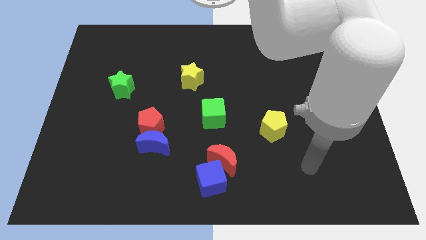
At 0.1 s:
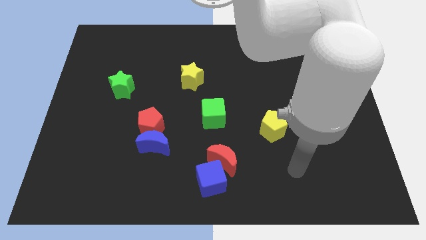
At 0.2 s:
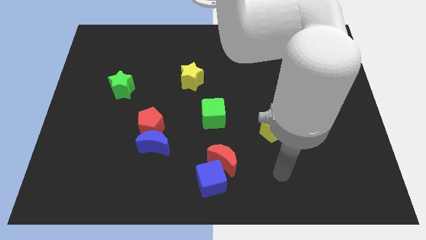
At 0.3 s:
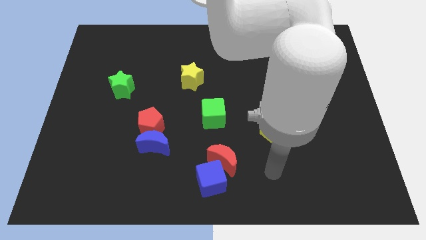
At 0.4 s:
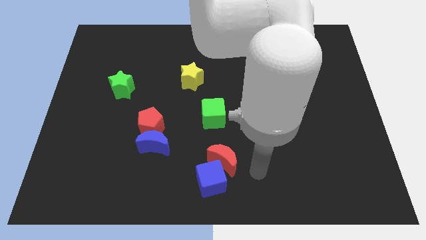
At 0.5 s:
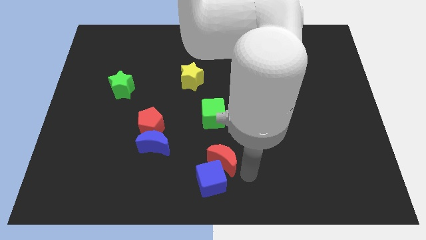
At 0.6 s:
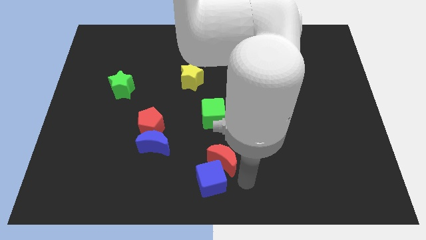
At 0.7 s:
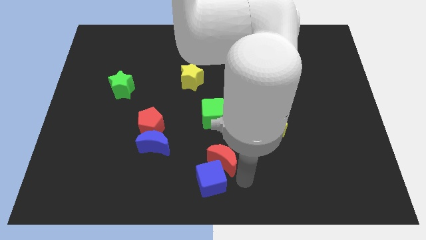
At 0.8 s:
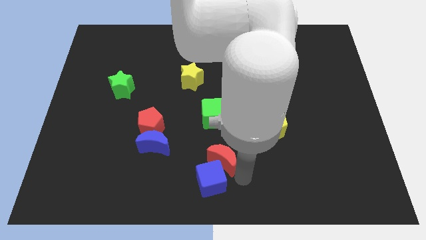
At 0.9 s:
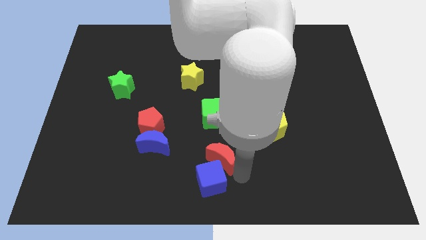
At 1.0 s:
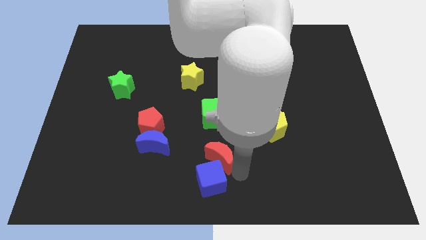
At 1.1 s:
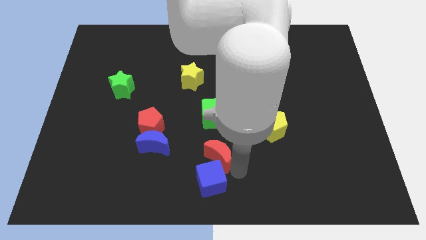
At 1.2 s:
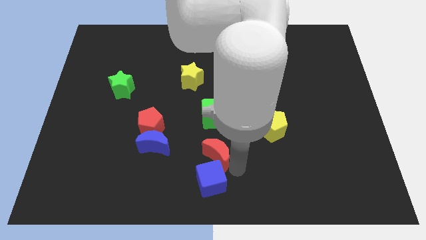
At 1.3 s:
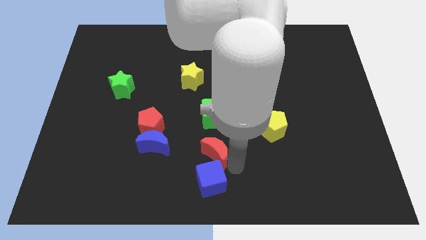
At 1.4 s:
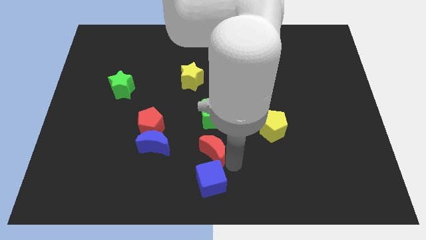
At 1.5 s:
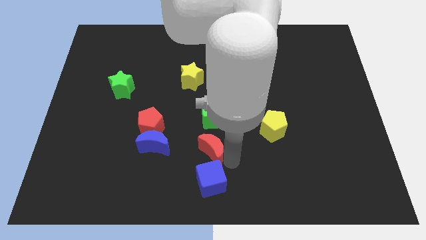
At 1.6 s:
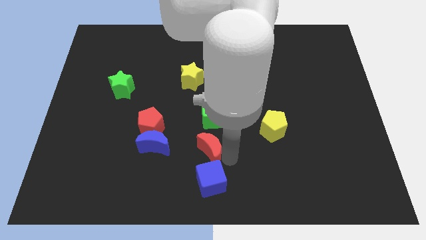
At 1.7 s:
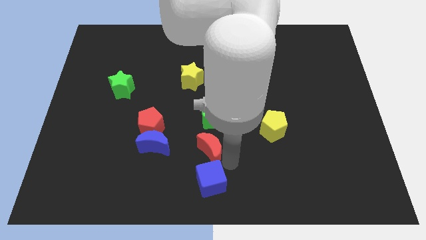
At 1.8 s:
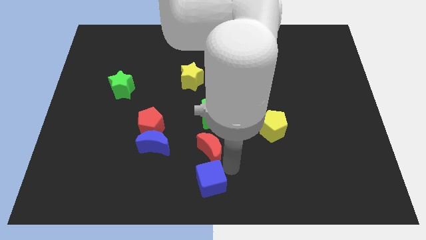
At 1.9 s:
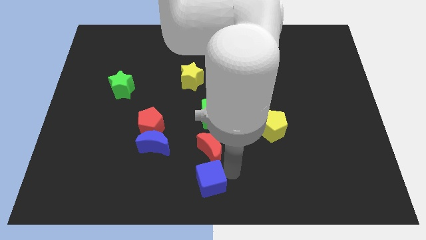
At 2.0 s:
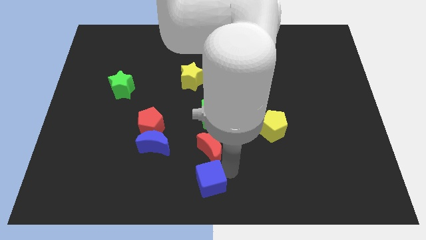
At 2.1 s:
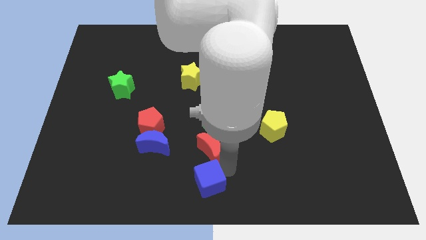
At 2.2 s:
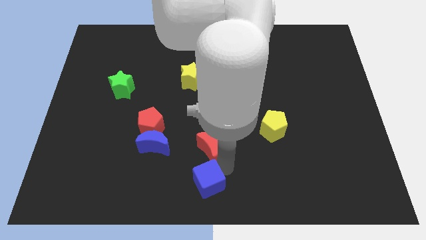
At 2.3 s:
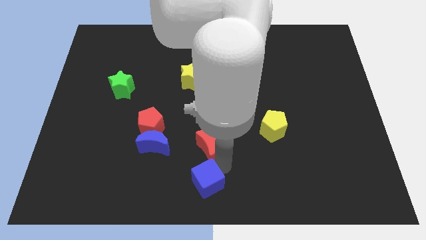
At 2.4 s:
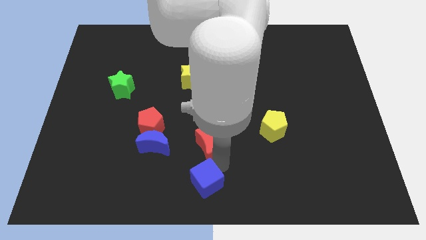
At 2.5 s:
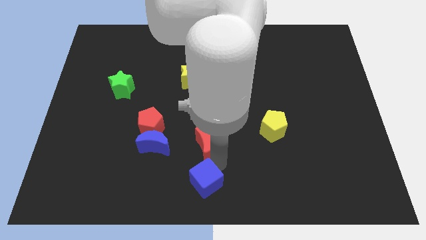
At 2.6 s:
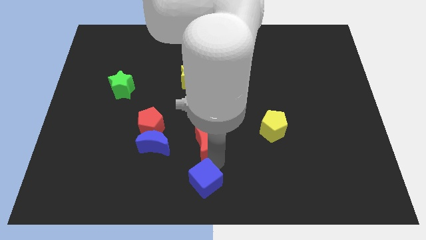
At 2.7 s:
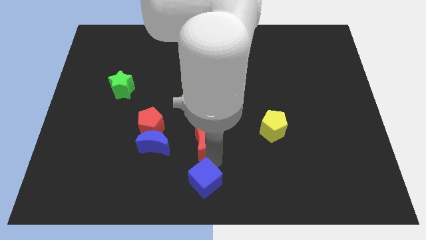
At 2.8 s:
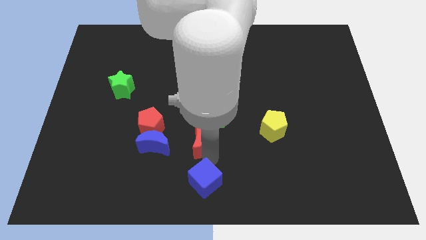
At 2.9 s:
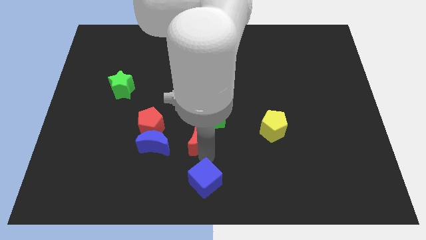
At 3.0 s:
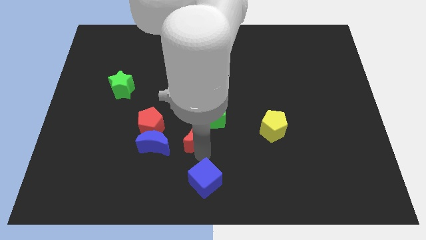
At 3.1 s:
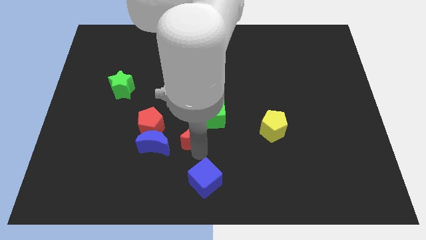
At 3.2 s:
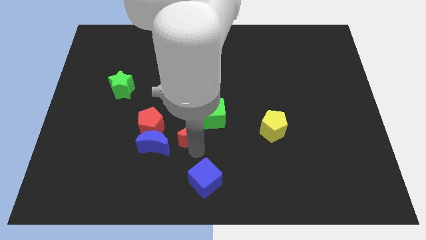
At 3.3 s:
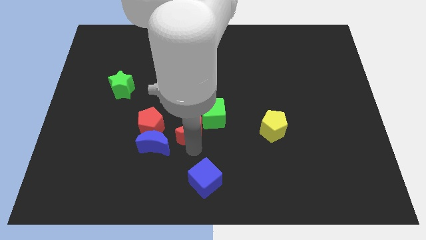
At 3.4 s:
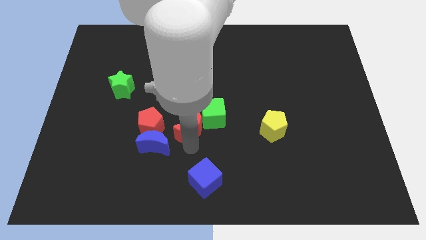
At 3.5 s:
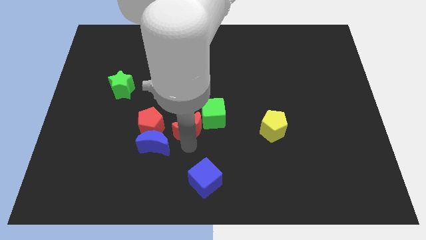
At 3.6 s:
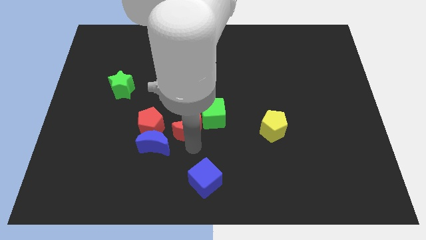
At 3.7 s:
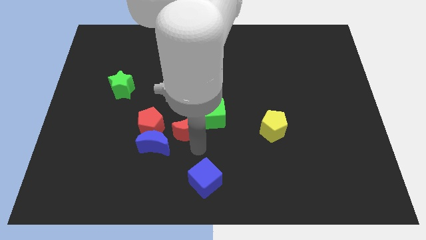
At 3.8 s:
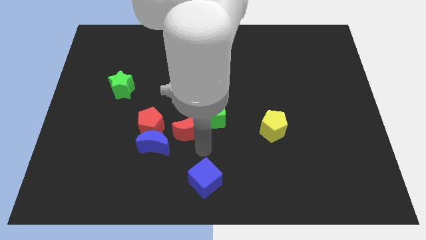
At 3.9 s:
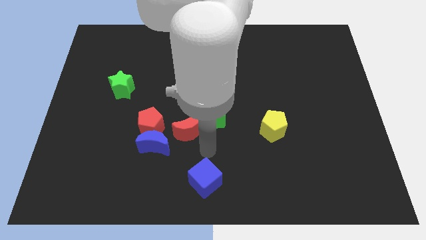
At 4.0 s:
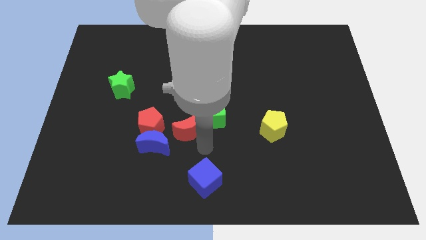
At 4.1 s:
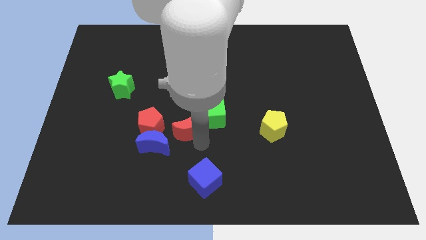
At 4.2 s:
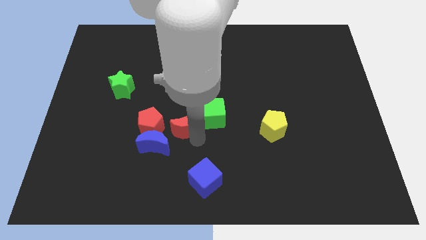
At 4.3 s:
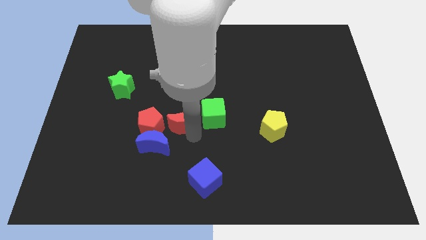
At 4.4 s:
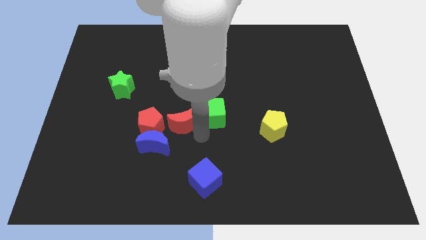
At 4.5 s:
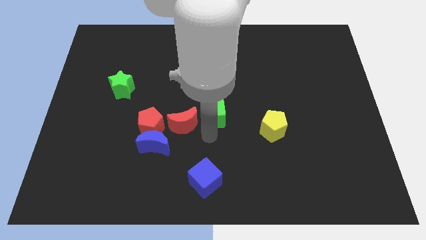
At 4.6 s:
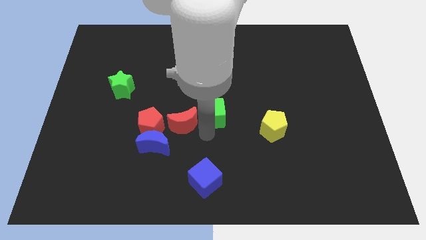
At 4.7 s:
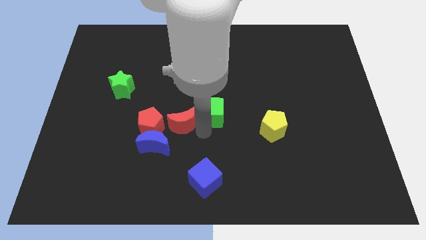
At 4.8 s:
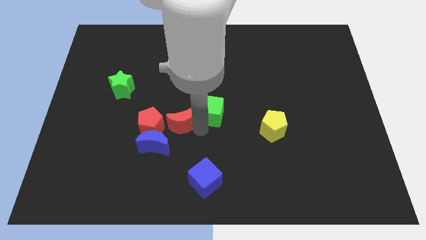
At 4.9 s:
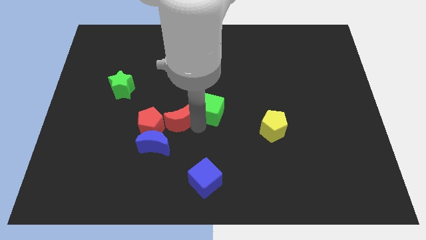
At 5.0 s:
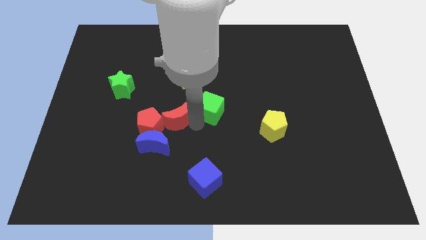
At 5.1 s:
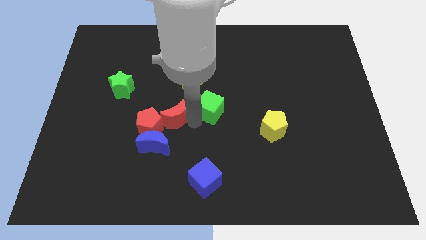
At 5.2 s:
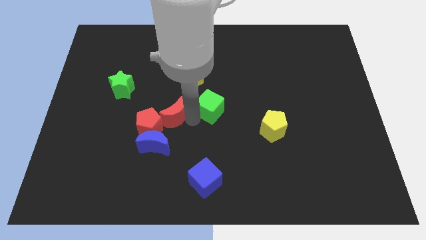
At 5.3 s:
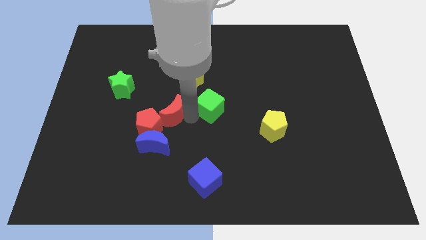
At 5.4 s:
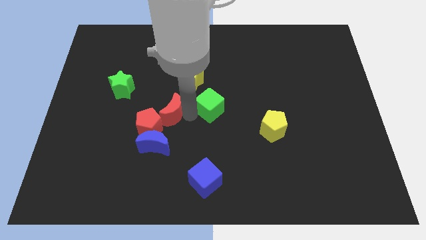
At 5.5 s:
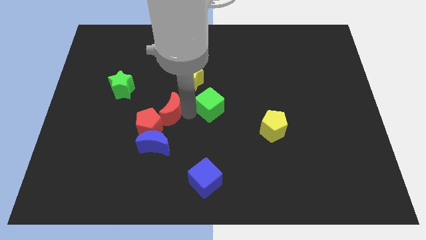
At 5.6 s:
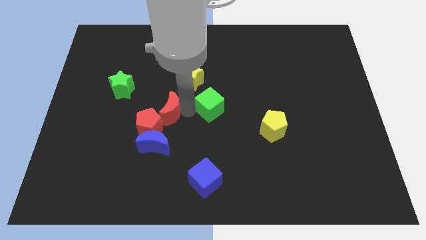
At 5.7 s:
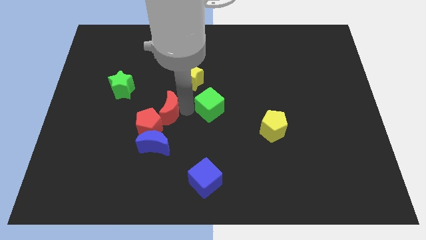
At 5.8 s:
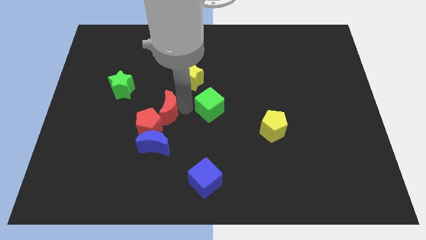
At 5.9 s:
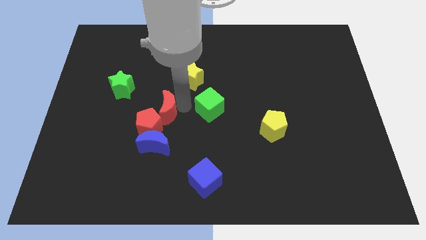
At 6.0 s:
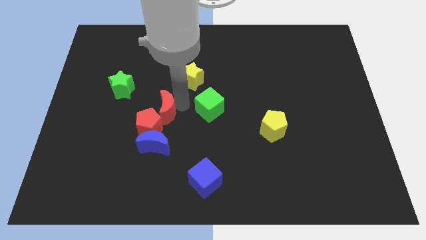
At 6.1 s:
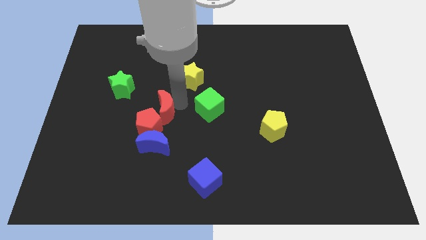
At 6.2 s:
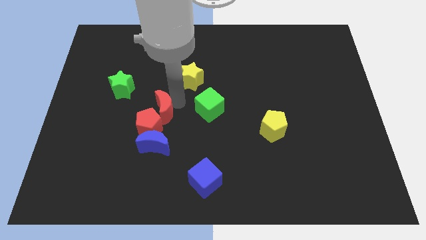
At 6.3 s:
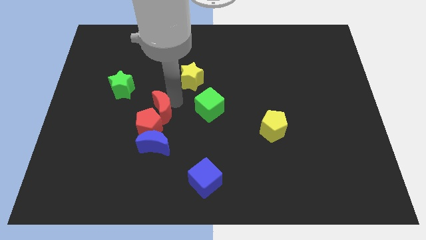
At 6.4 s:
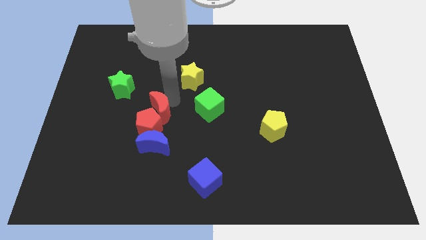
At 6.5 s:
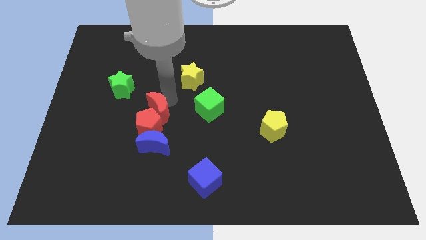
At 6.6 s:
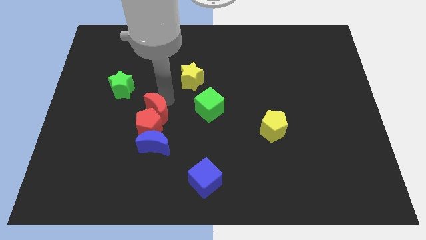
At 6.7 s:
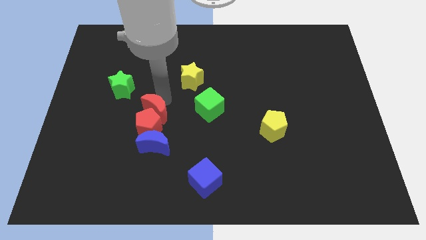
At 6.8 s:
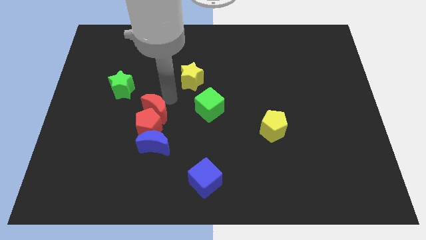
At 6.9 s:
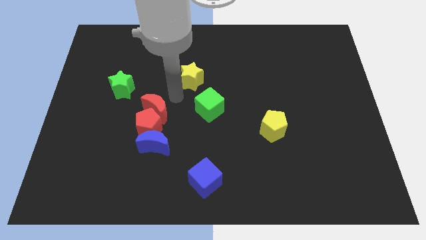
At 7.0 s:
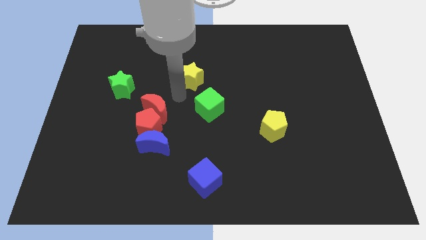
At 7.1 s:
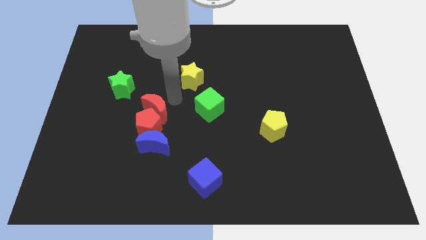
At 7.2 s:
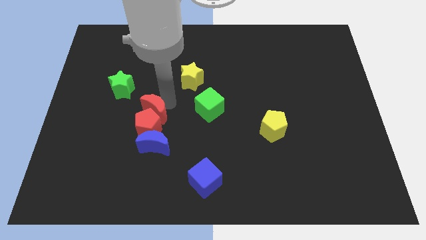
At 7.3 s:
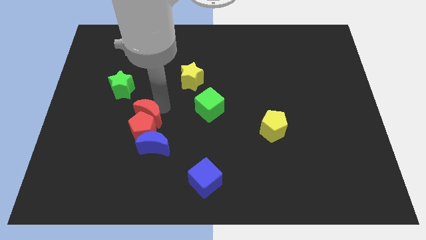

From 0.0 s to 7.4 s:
push the red moon diagonally up and to the left of the blue moon
